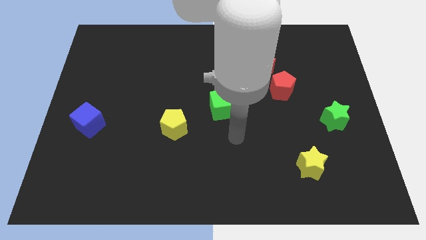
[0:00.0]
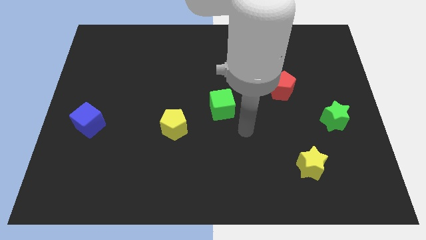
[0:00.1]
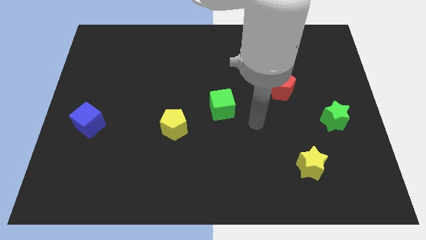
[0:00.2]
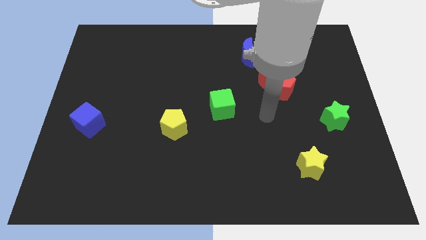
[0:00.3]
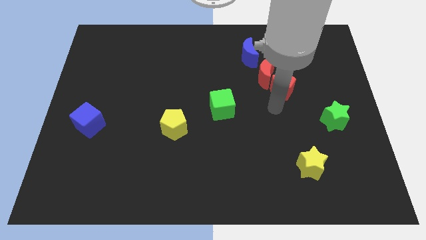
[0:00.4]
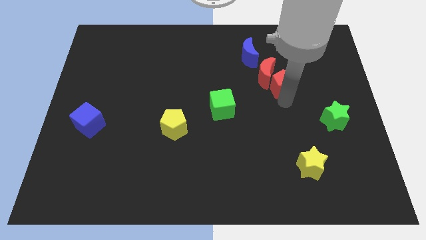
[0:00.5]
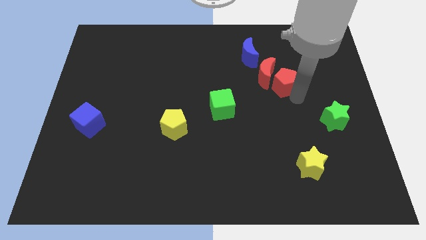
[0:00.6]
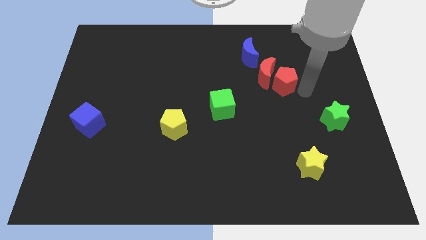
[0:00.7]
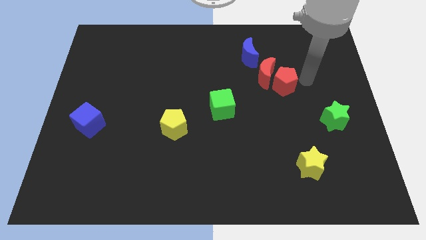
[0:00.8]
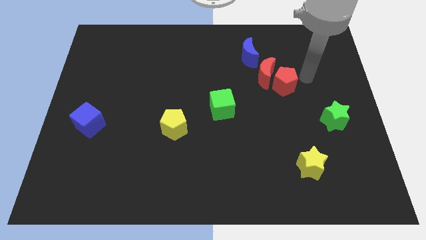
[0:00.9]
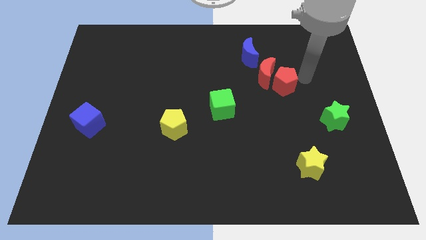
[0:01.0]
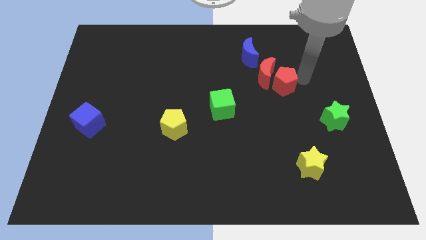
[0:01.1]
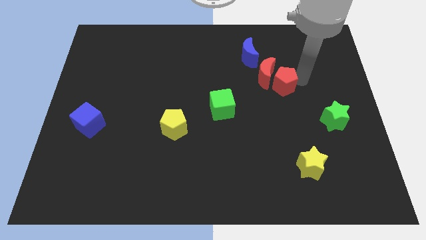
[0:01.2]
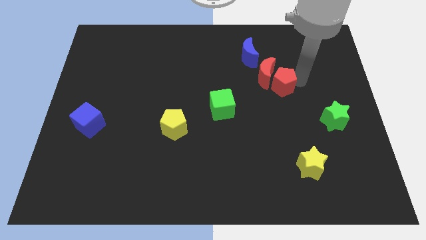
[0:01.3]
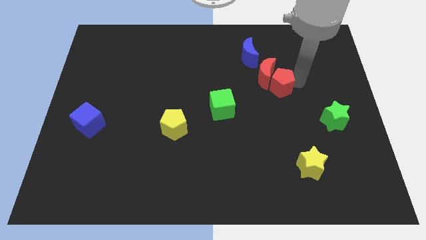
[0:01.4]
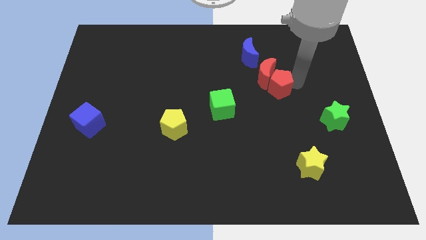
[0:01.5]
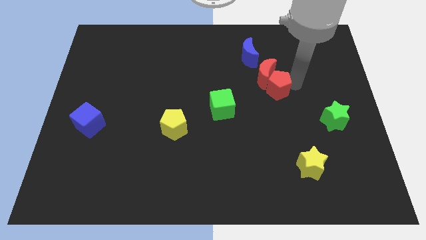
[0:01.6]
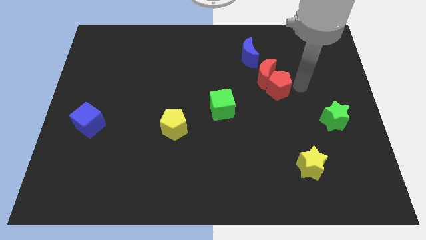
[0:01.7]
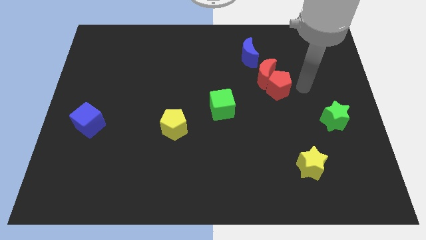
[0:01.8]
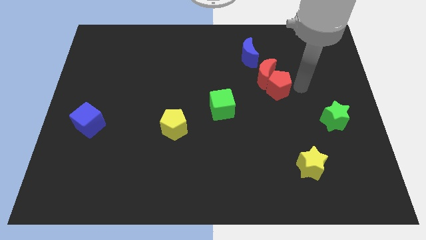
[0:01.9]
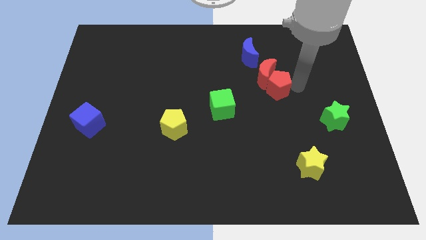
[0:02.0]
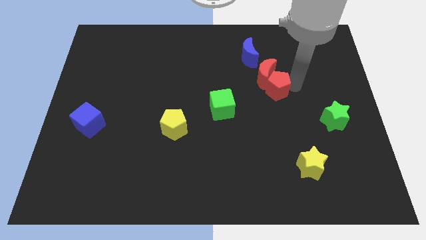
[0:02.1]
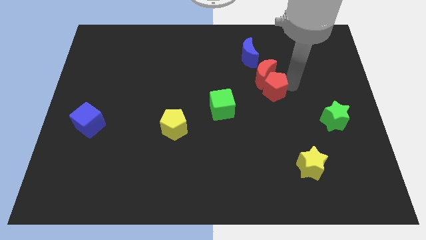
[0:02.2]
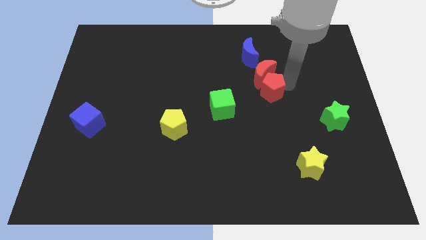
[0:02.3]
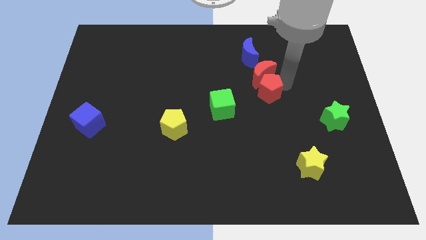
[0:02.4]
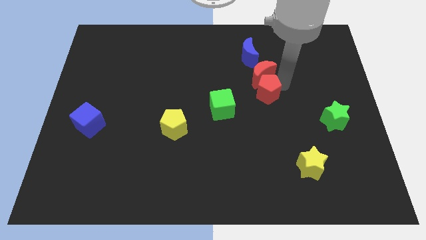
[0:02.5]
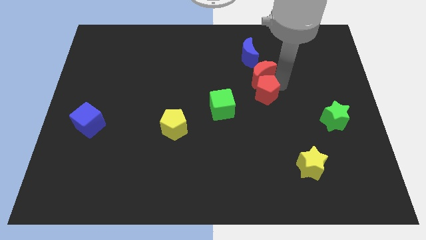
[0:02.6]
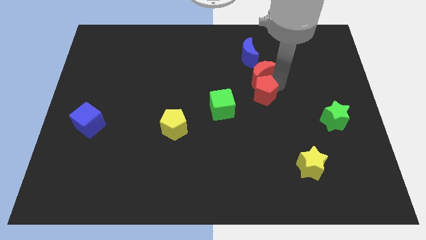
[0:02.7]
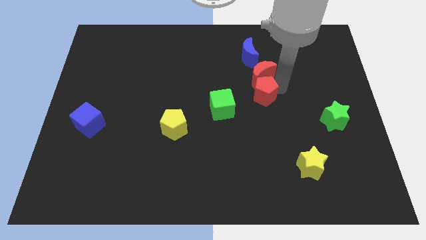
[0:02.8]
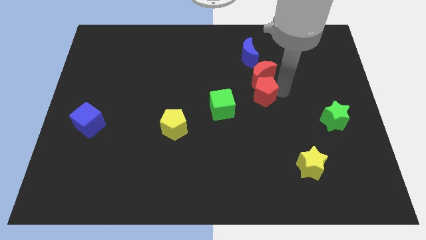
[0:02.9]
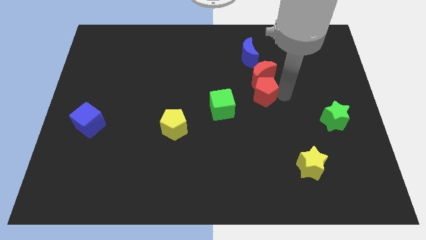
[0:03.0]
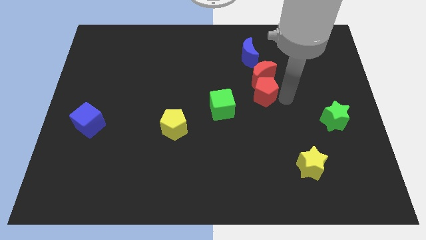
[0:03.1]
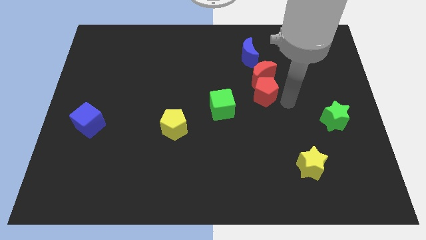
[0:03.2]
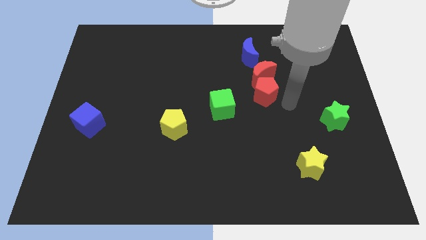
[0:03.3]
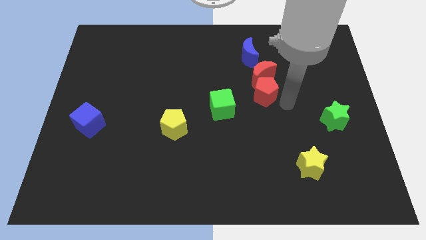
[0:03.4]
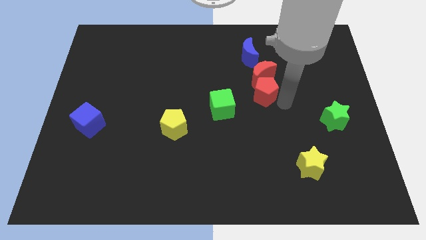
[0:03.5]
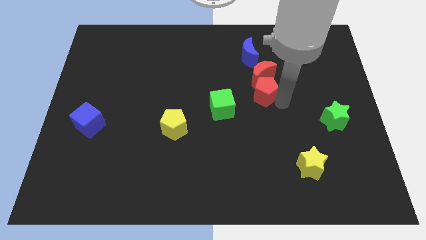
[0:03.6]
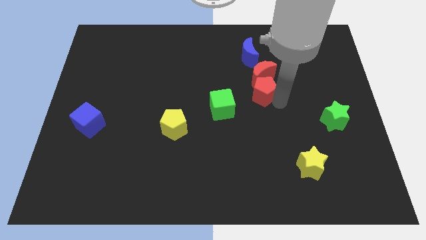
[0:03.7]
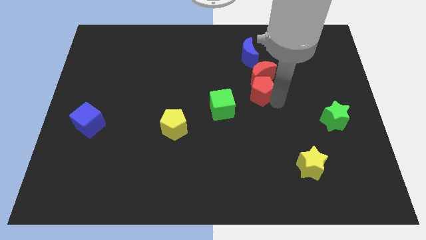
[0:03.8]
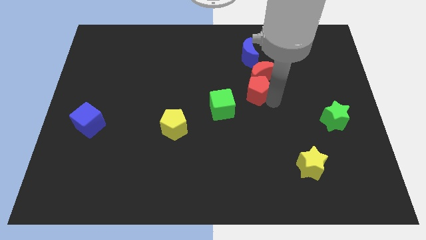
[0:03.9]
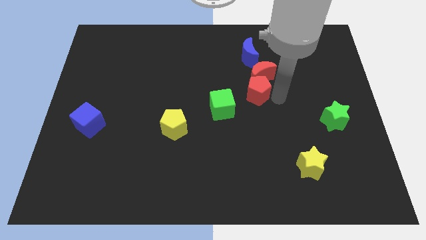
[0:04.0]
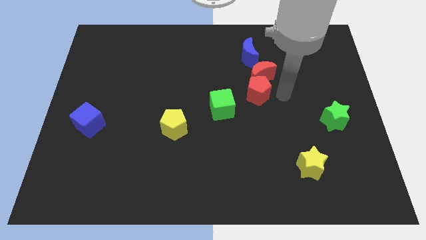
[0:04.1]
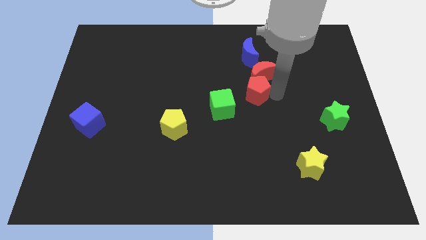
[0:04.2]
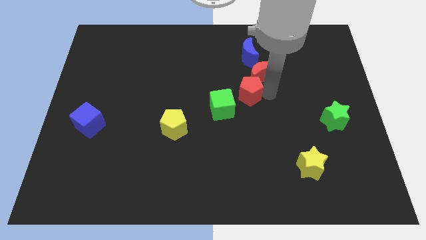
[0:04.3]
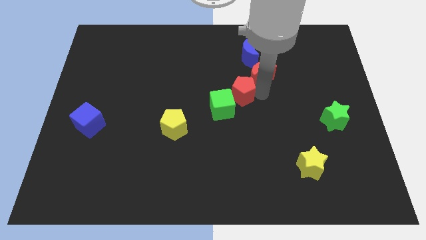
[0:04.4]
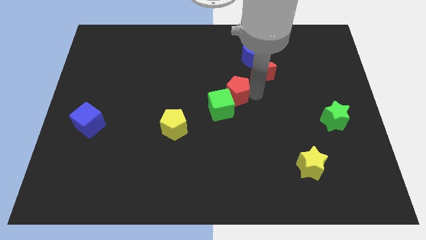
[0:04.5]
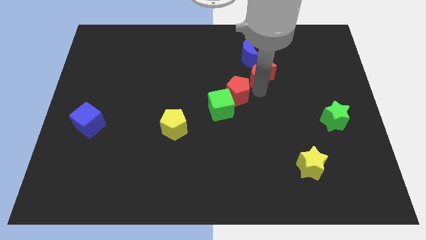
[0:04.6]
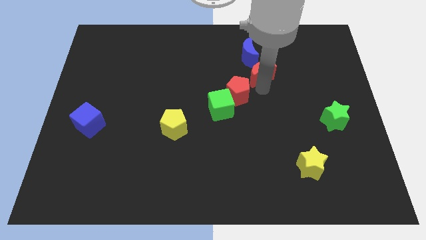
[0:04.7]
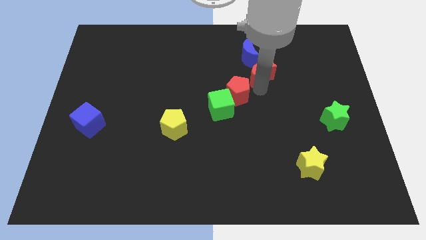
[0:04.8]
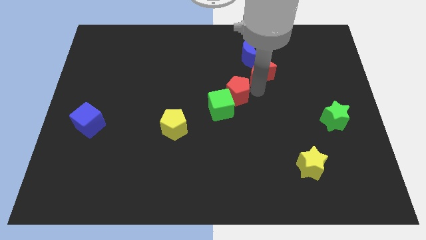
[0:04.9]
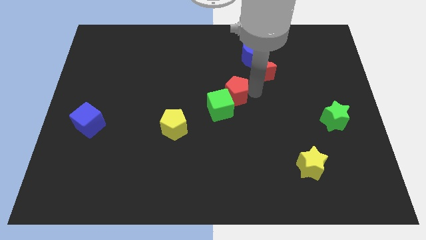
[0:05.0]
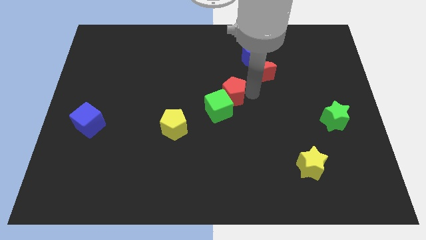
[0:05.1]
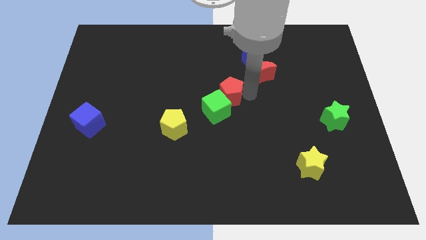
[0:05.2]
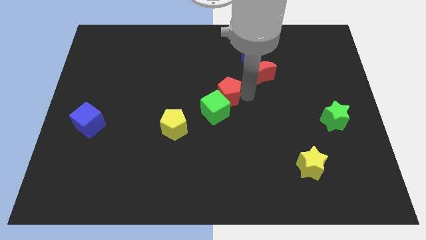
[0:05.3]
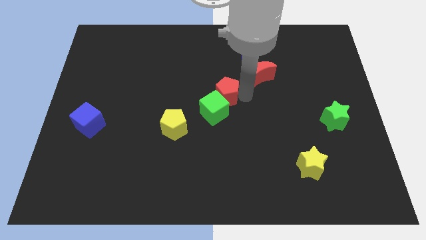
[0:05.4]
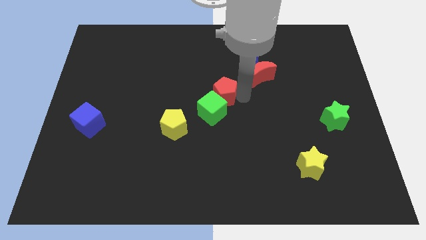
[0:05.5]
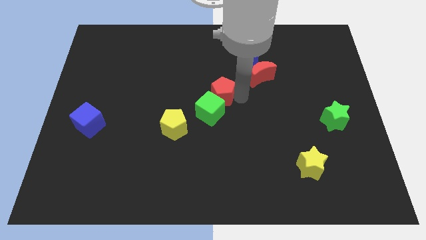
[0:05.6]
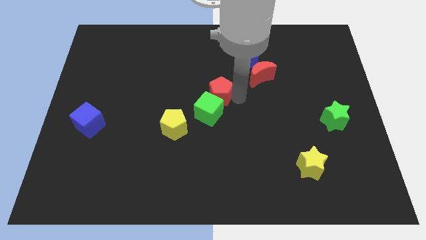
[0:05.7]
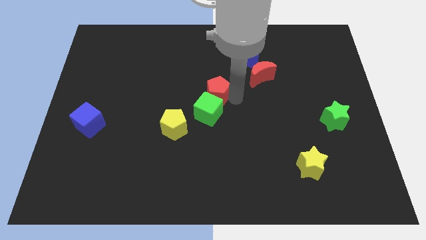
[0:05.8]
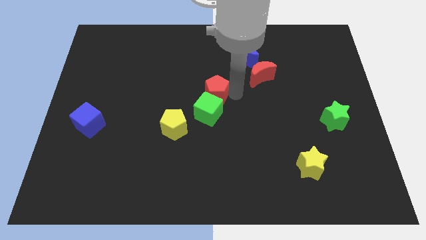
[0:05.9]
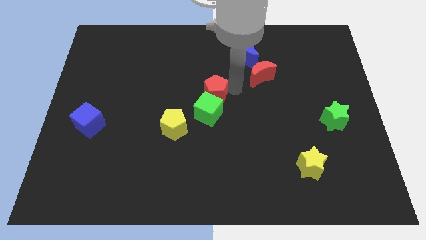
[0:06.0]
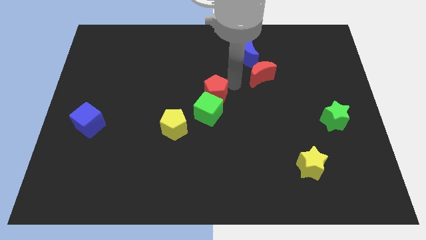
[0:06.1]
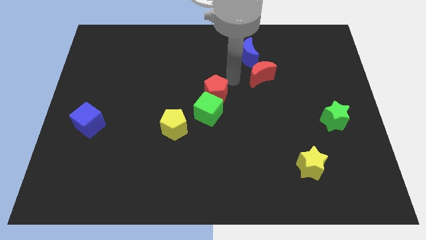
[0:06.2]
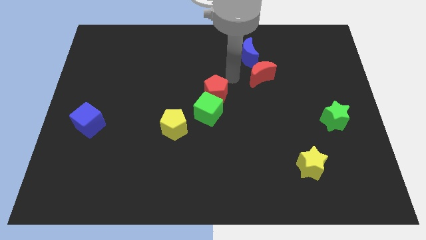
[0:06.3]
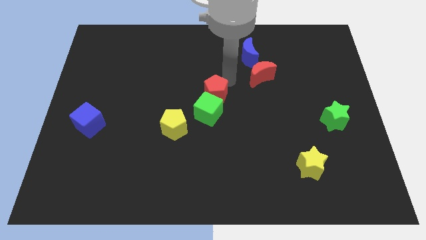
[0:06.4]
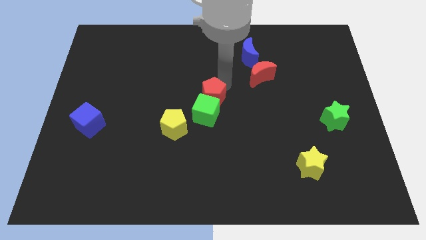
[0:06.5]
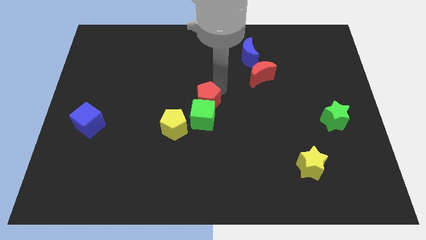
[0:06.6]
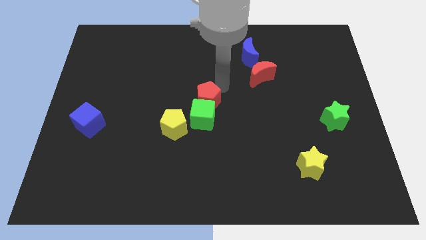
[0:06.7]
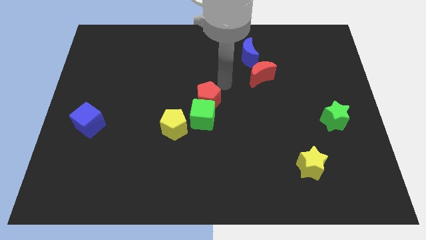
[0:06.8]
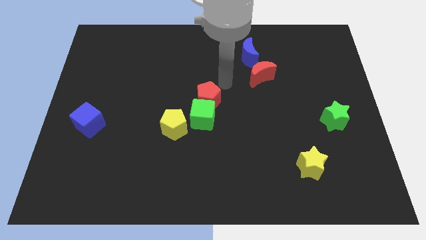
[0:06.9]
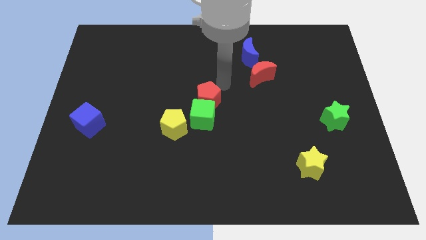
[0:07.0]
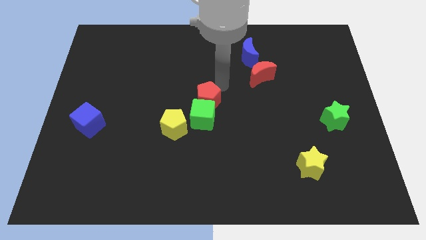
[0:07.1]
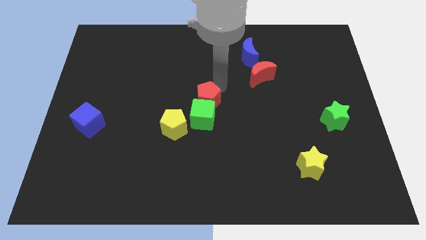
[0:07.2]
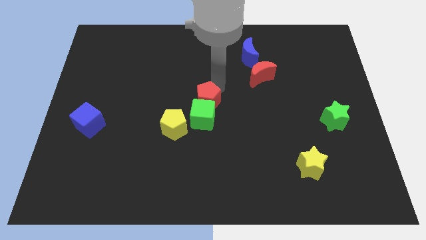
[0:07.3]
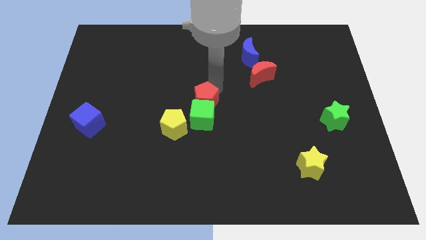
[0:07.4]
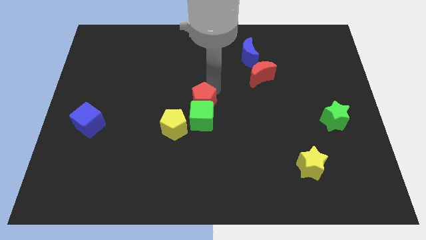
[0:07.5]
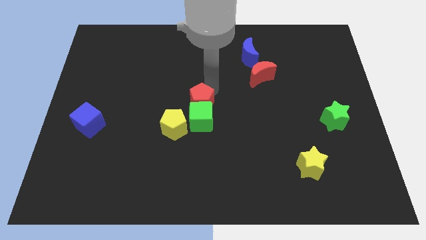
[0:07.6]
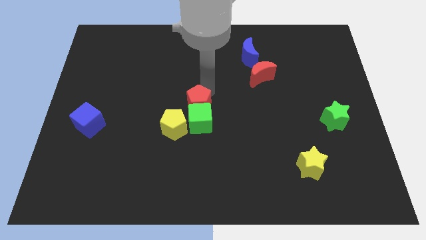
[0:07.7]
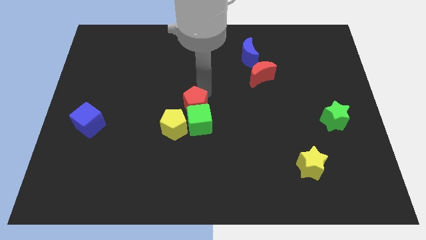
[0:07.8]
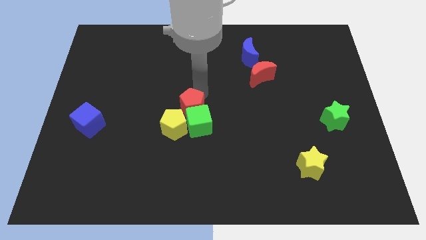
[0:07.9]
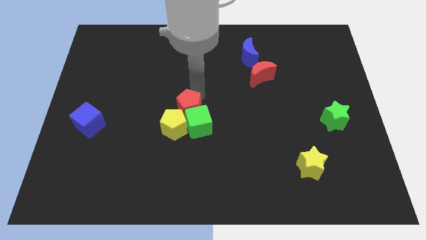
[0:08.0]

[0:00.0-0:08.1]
put the red pentagon next to the yellow pentagon
